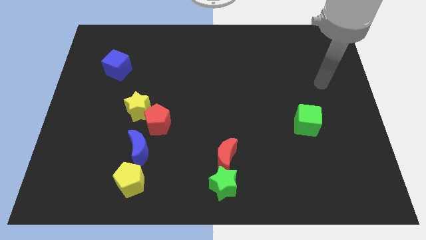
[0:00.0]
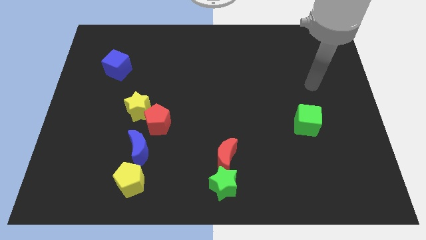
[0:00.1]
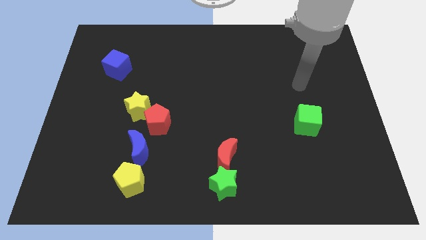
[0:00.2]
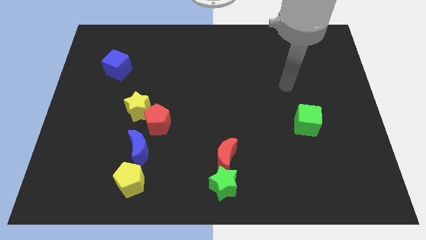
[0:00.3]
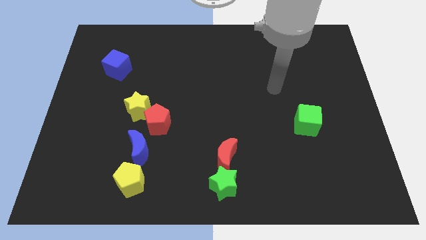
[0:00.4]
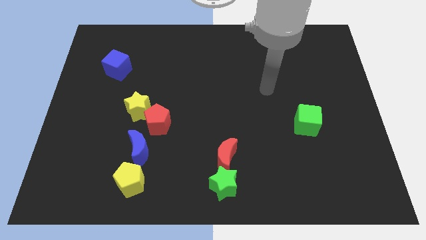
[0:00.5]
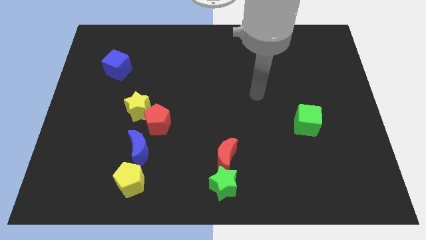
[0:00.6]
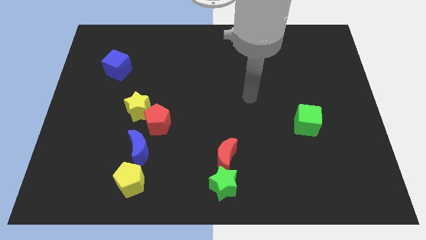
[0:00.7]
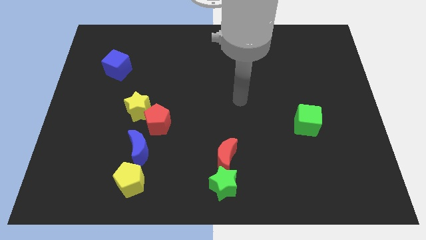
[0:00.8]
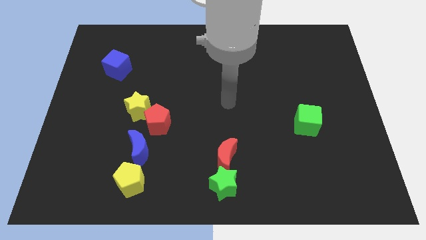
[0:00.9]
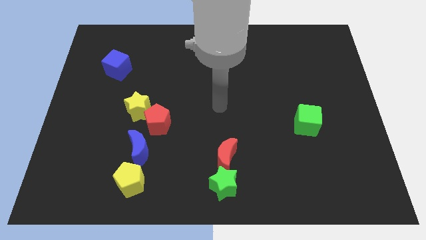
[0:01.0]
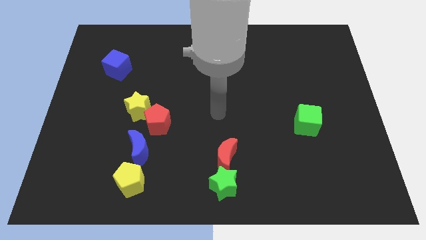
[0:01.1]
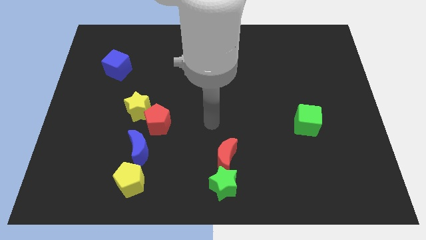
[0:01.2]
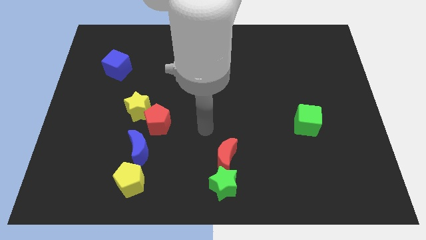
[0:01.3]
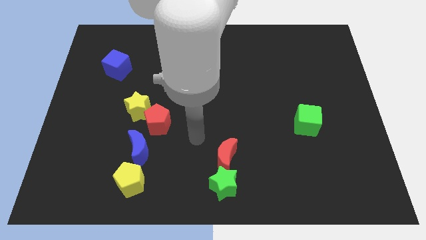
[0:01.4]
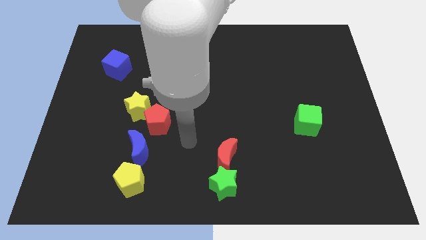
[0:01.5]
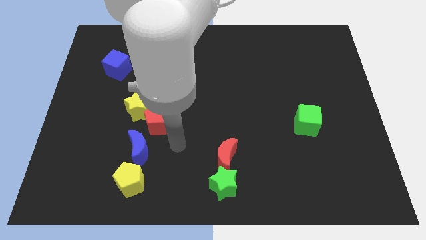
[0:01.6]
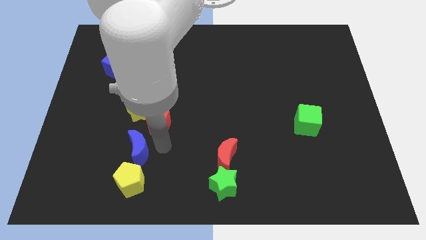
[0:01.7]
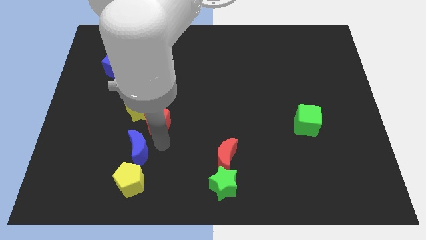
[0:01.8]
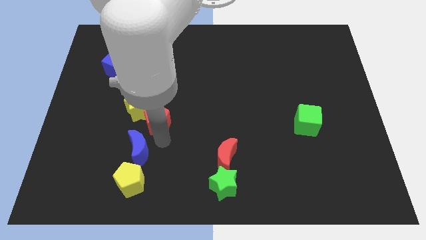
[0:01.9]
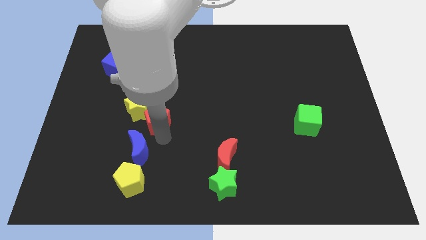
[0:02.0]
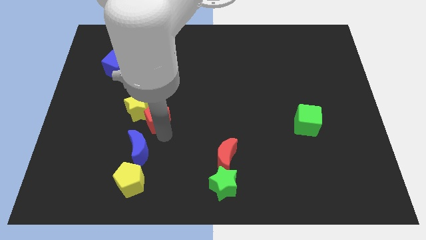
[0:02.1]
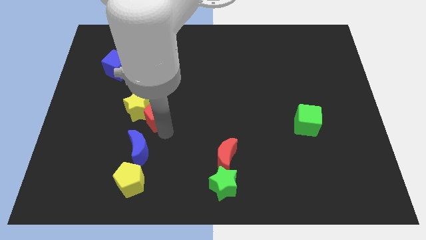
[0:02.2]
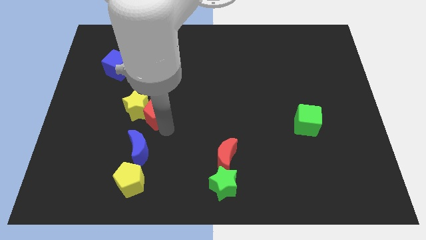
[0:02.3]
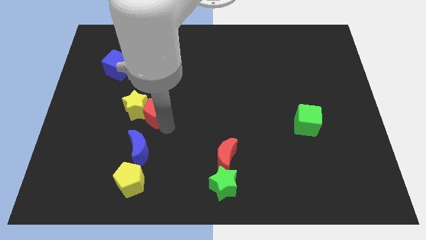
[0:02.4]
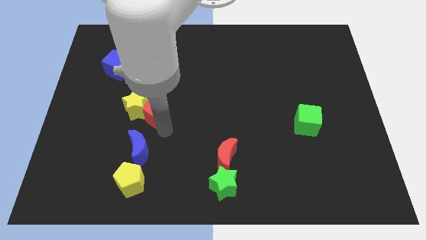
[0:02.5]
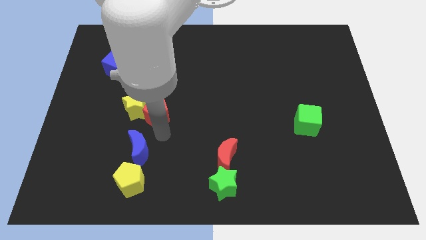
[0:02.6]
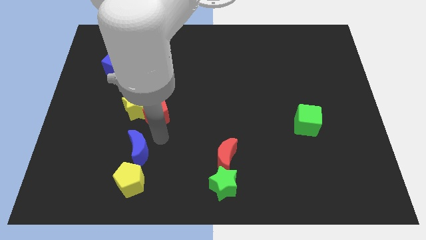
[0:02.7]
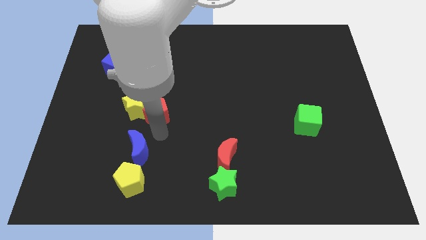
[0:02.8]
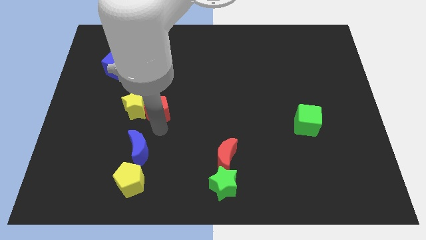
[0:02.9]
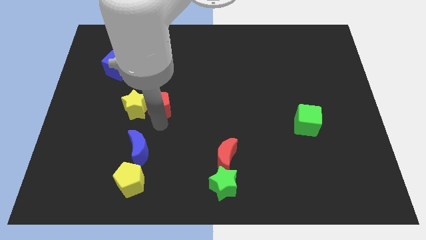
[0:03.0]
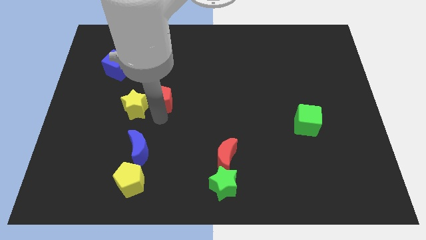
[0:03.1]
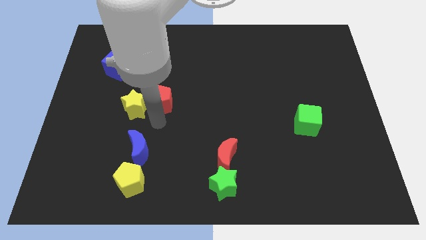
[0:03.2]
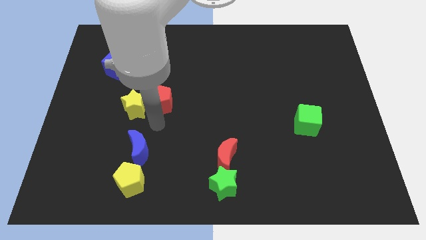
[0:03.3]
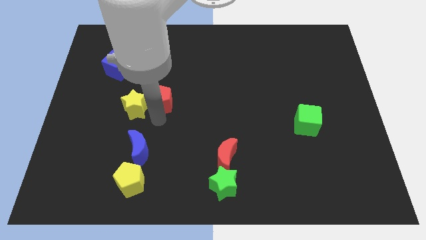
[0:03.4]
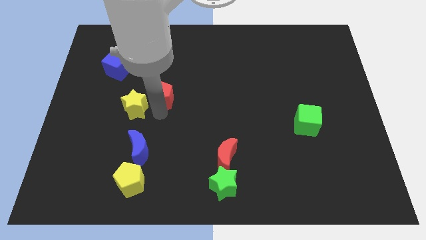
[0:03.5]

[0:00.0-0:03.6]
slide the red pentagon up a little

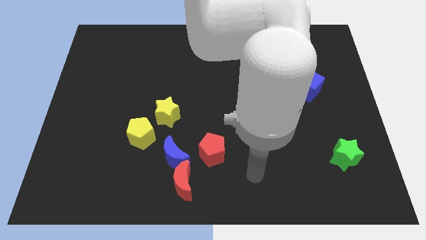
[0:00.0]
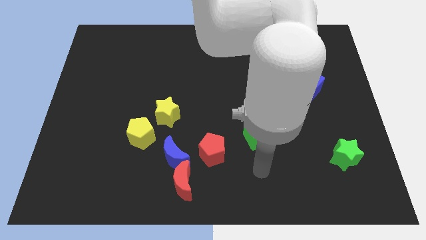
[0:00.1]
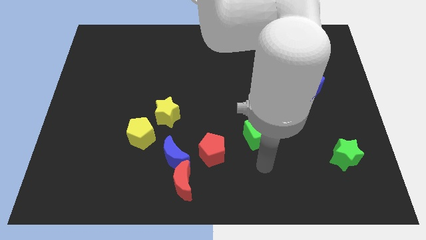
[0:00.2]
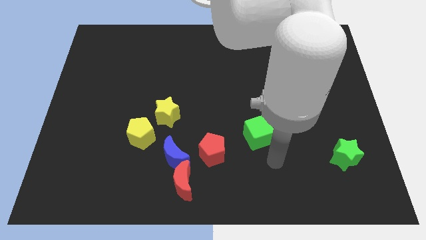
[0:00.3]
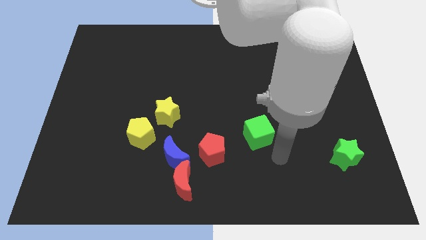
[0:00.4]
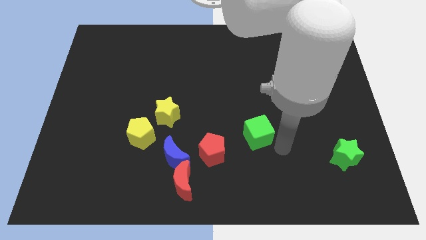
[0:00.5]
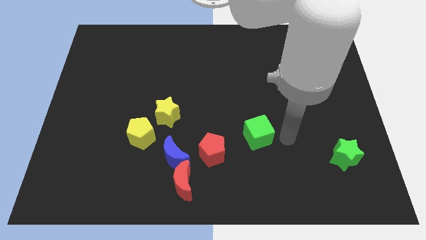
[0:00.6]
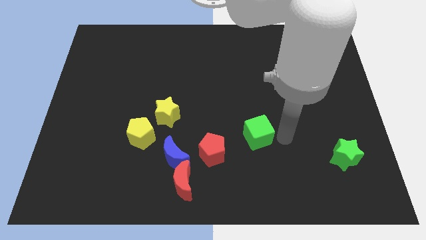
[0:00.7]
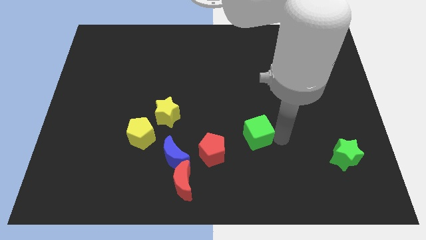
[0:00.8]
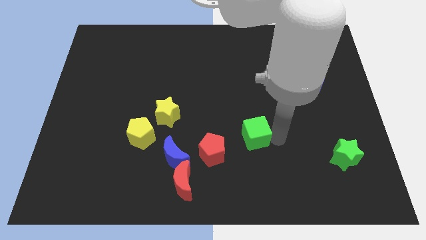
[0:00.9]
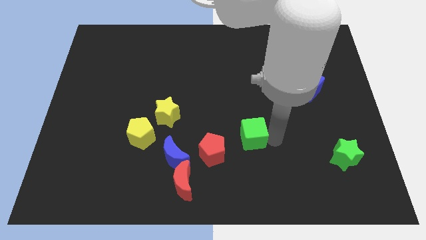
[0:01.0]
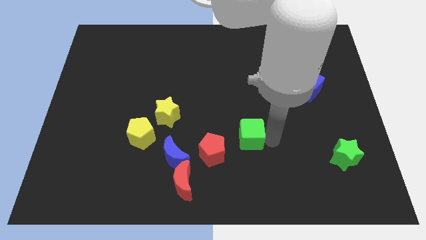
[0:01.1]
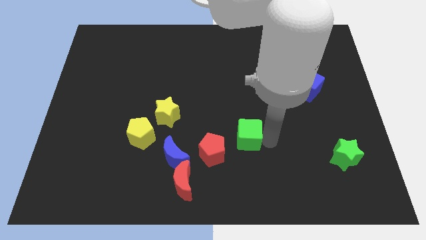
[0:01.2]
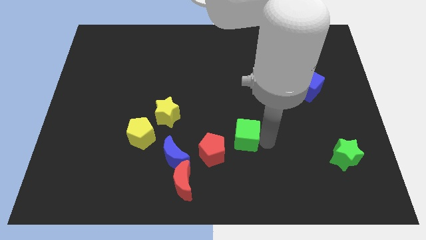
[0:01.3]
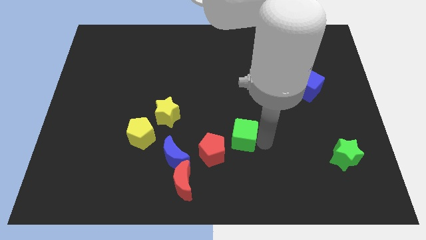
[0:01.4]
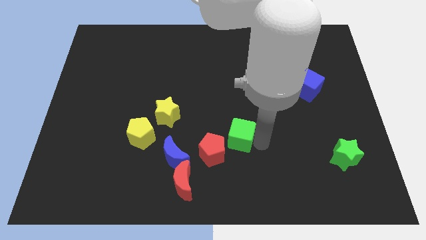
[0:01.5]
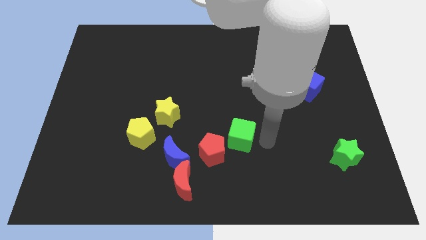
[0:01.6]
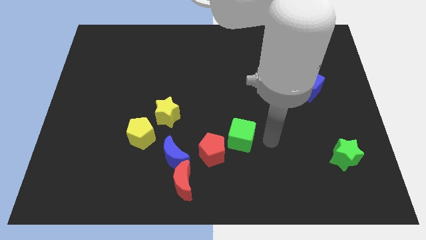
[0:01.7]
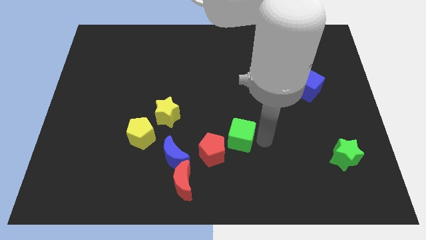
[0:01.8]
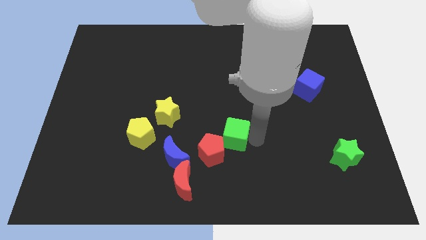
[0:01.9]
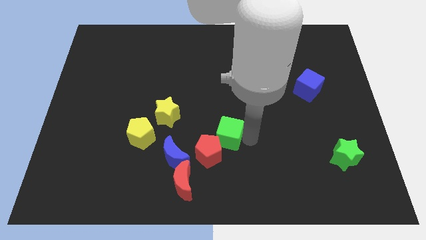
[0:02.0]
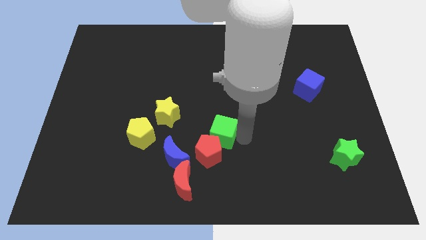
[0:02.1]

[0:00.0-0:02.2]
move the green cube left a little bit

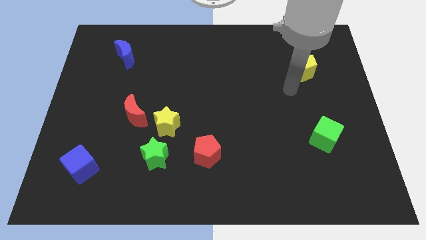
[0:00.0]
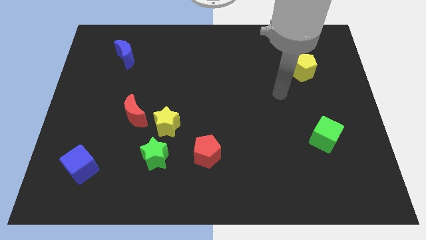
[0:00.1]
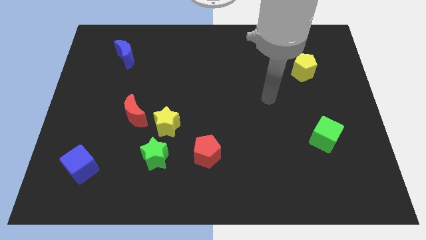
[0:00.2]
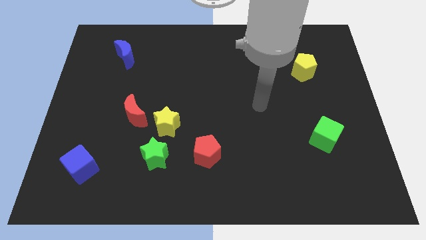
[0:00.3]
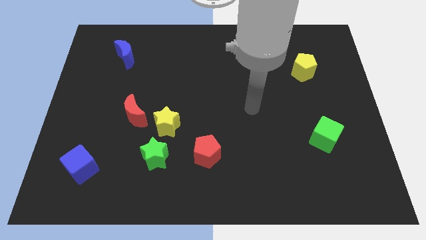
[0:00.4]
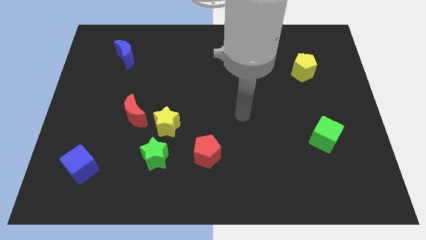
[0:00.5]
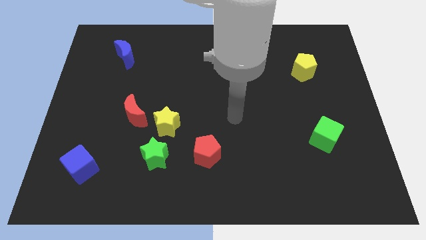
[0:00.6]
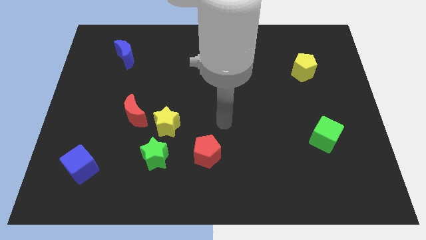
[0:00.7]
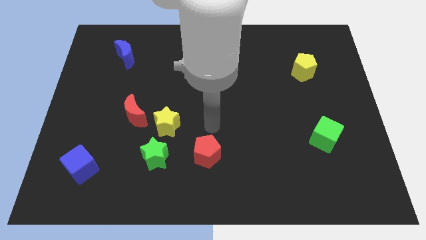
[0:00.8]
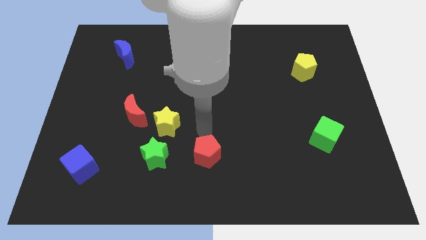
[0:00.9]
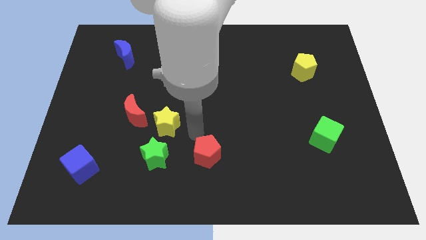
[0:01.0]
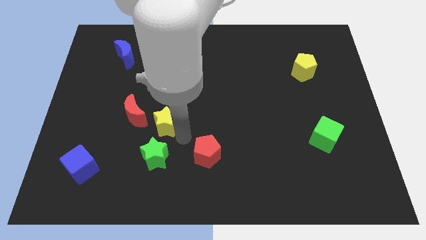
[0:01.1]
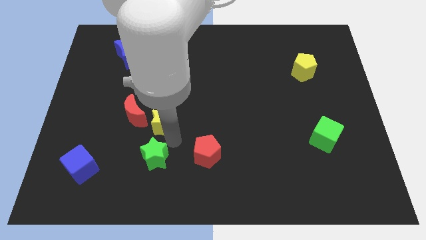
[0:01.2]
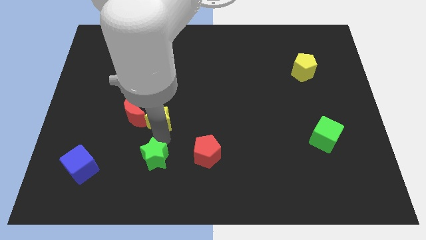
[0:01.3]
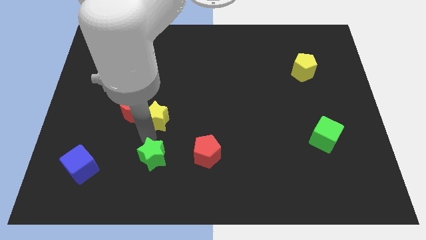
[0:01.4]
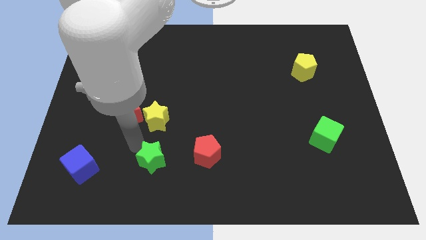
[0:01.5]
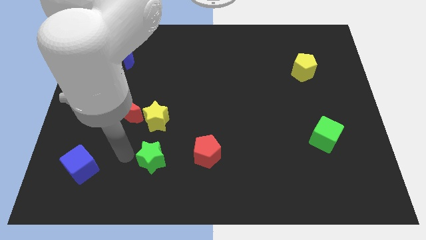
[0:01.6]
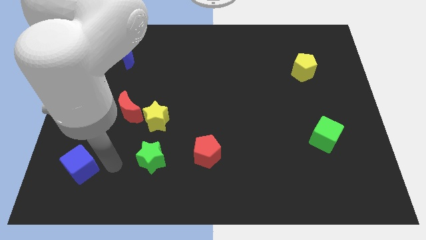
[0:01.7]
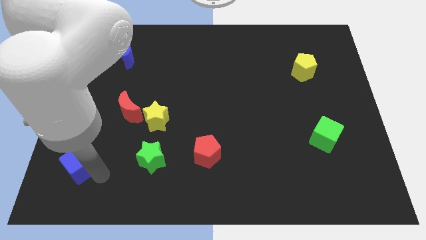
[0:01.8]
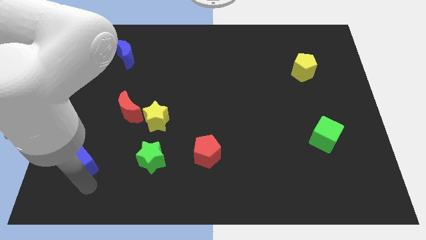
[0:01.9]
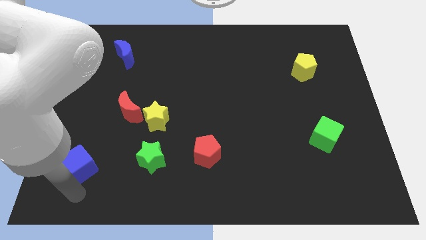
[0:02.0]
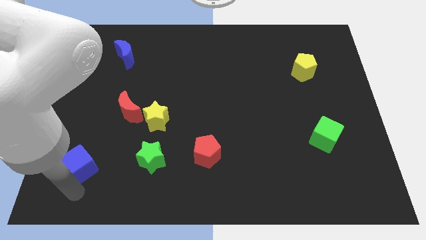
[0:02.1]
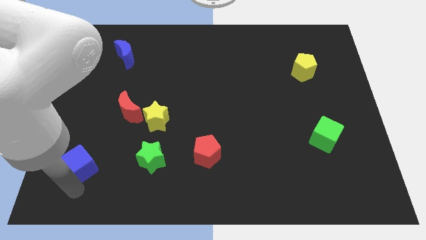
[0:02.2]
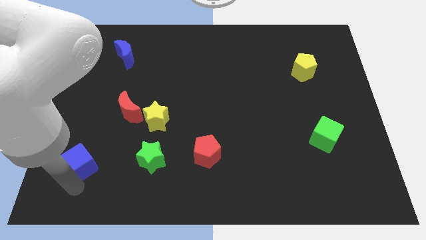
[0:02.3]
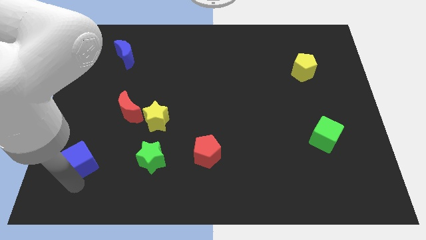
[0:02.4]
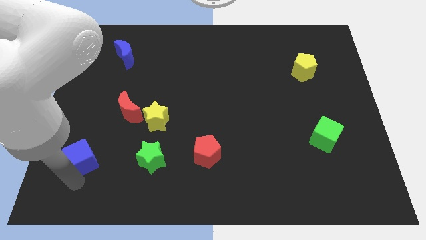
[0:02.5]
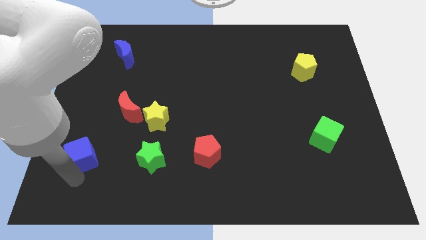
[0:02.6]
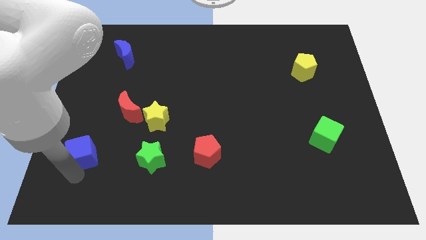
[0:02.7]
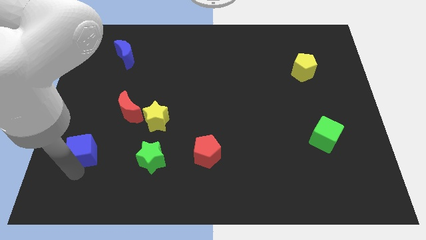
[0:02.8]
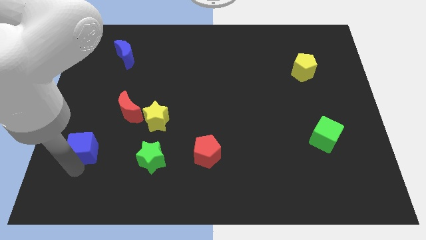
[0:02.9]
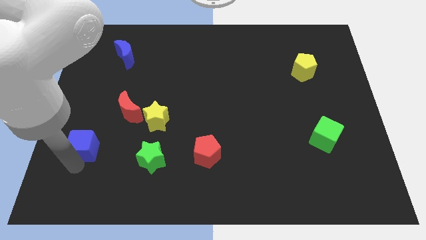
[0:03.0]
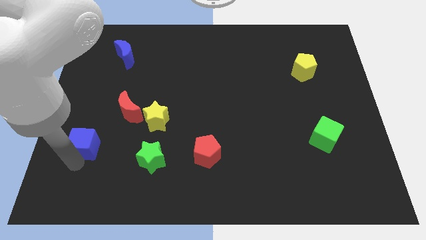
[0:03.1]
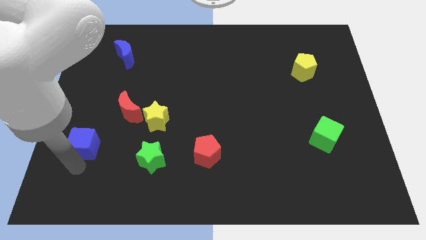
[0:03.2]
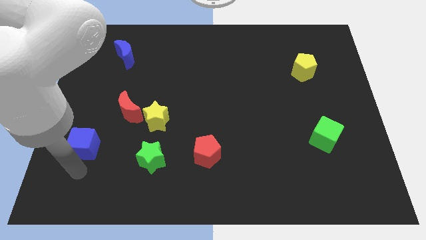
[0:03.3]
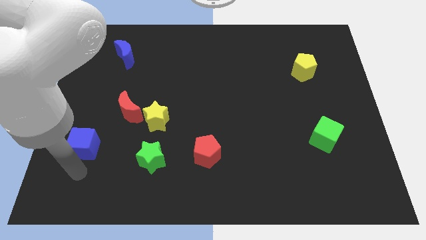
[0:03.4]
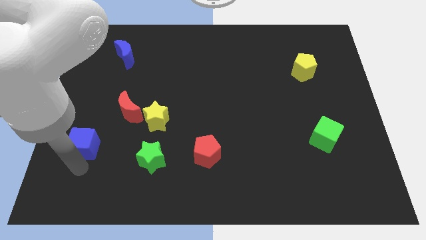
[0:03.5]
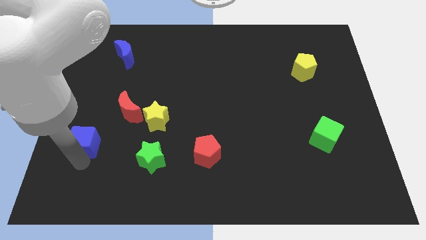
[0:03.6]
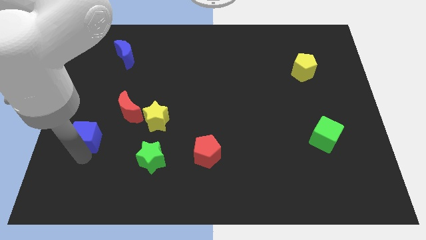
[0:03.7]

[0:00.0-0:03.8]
slightly slide the blue cube up
